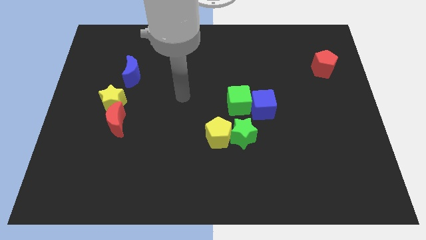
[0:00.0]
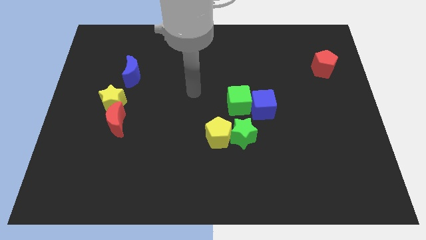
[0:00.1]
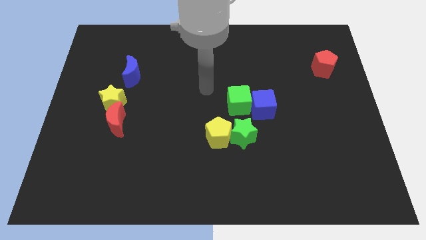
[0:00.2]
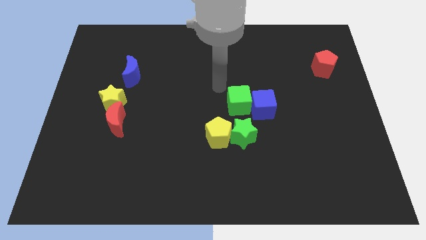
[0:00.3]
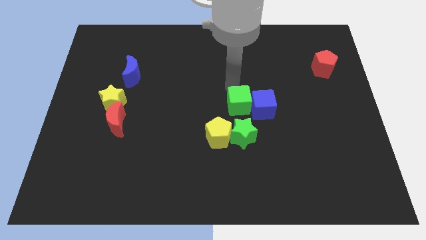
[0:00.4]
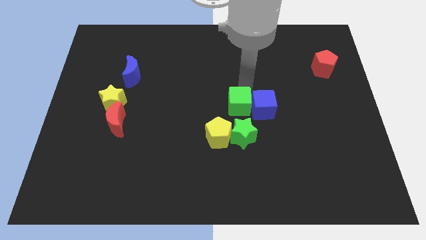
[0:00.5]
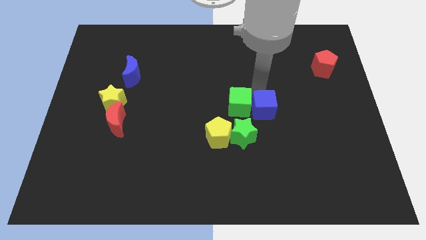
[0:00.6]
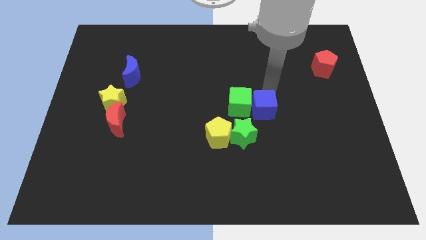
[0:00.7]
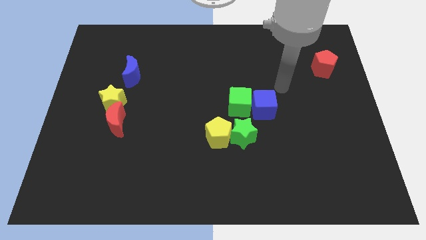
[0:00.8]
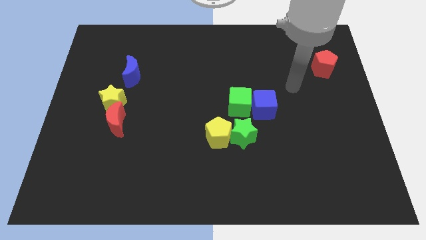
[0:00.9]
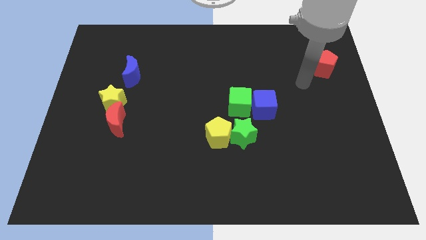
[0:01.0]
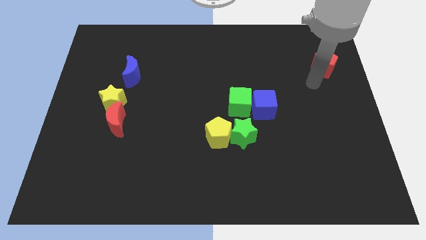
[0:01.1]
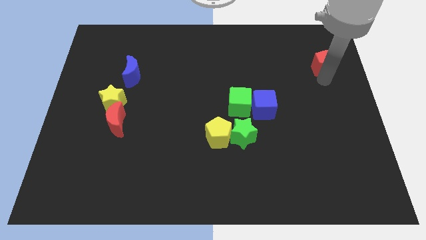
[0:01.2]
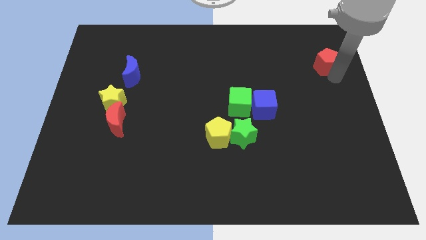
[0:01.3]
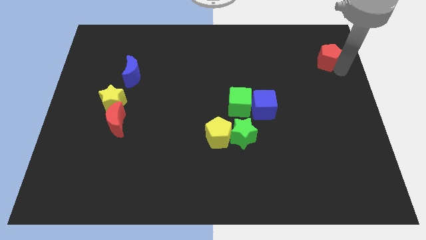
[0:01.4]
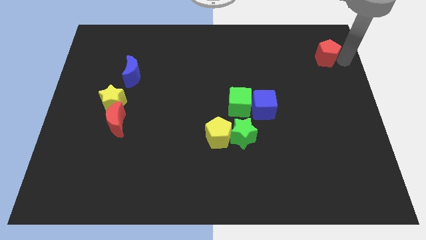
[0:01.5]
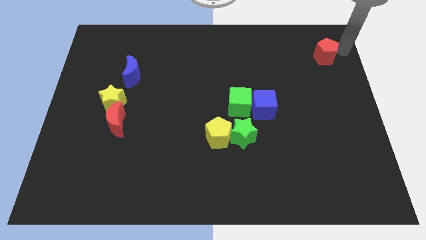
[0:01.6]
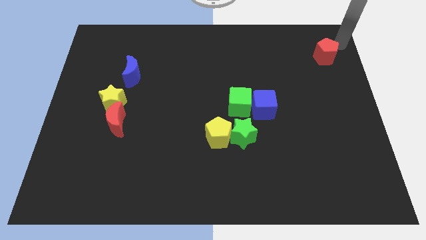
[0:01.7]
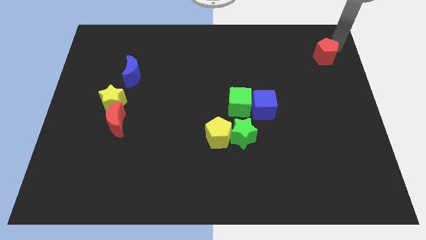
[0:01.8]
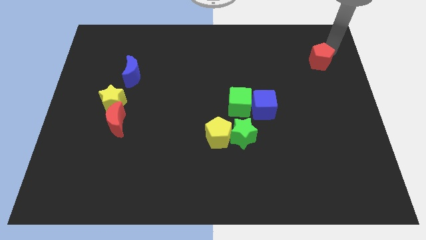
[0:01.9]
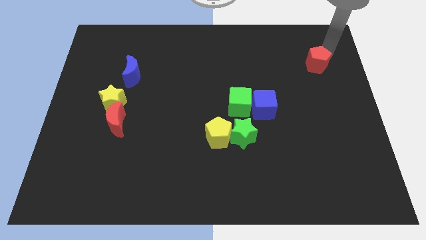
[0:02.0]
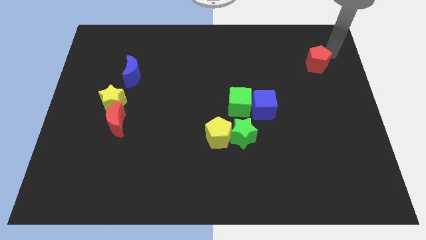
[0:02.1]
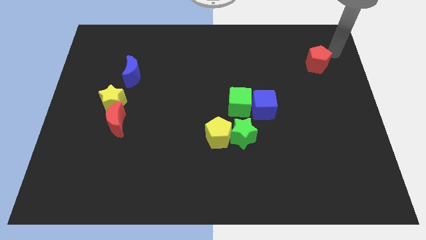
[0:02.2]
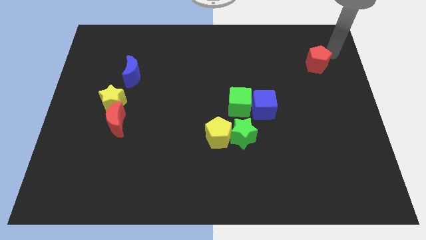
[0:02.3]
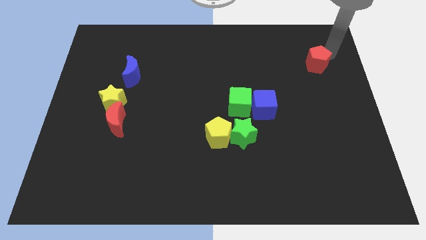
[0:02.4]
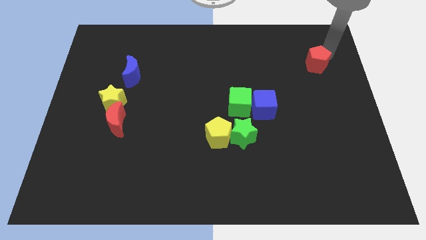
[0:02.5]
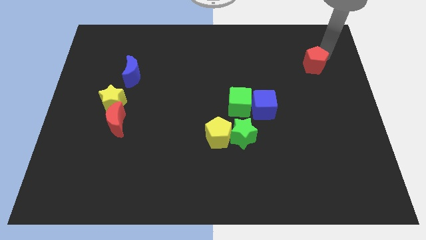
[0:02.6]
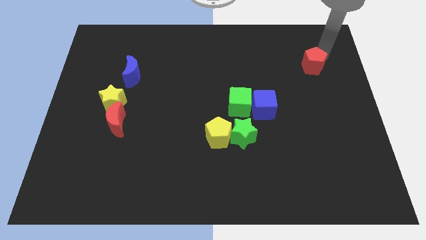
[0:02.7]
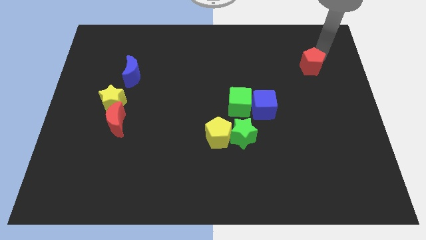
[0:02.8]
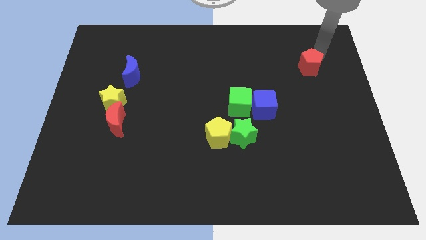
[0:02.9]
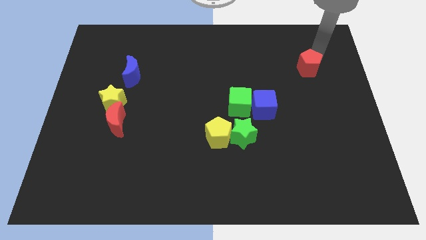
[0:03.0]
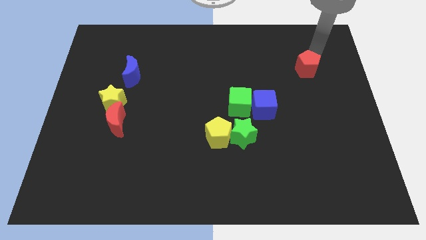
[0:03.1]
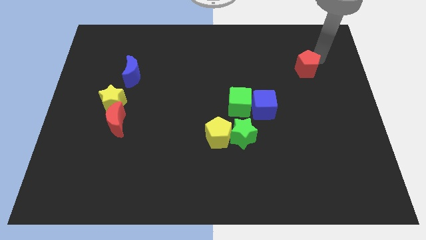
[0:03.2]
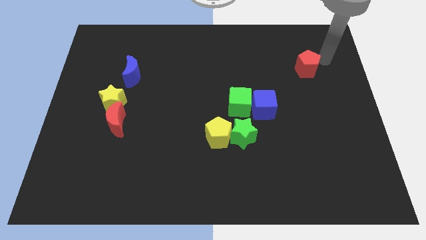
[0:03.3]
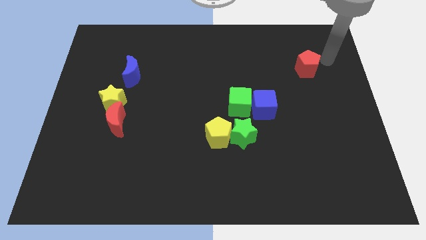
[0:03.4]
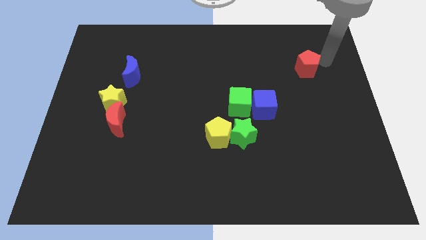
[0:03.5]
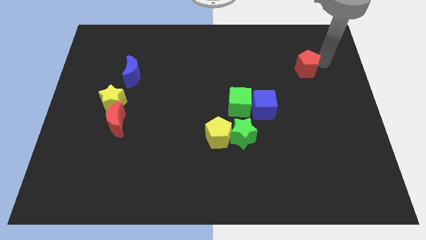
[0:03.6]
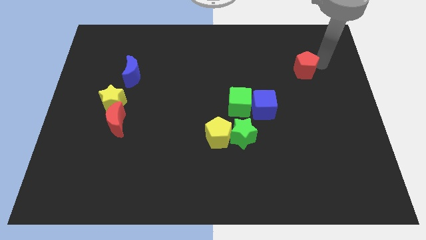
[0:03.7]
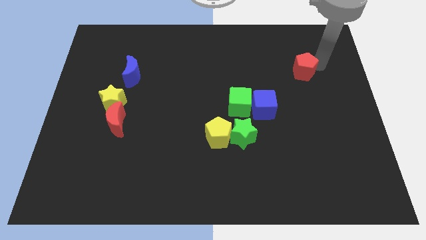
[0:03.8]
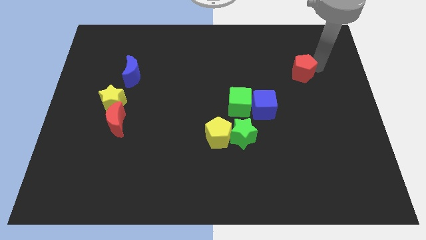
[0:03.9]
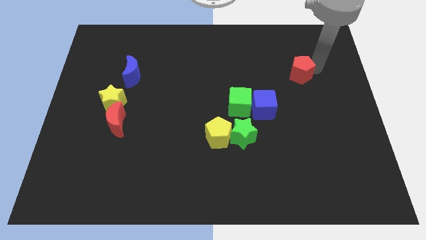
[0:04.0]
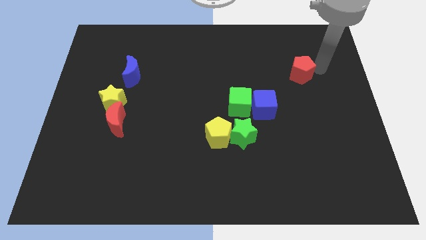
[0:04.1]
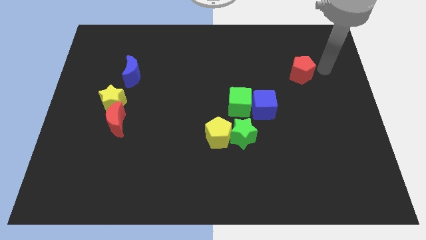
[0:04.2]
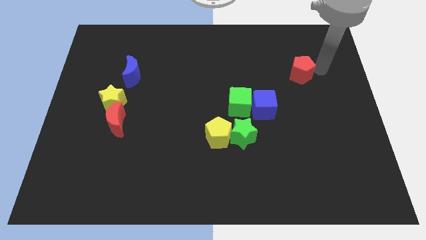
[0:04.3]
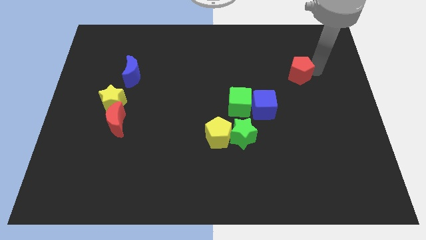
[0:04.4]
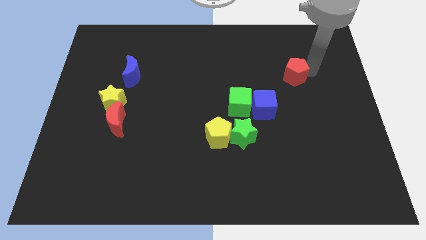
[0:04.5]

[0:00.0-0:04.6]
push the red pentagon a bit to the left

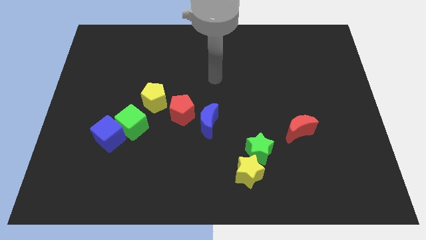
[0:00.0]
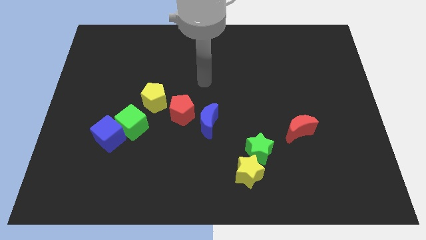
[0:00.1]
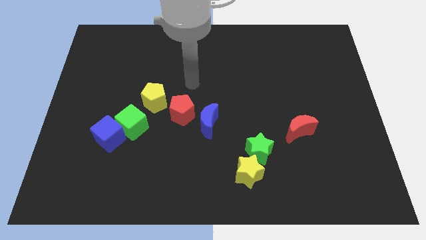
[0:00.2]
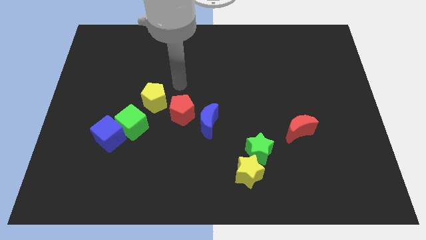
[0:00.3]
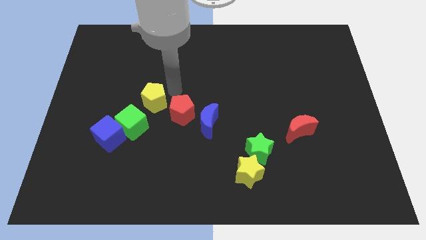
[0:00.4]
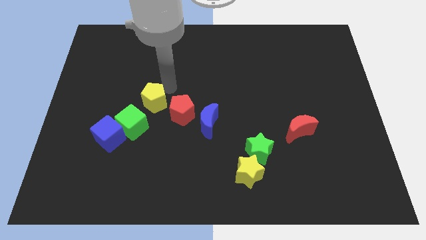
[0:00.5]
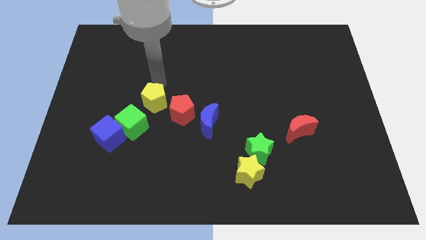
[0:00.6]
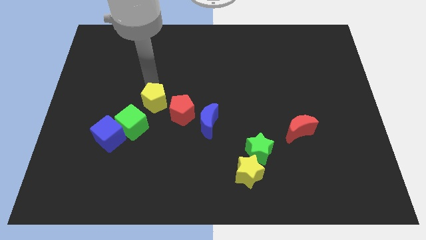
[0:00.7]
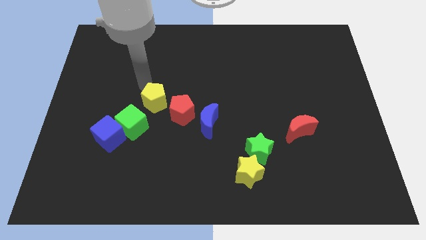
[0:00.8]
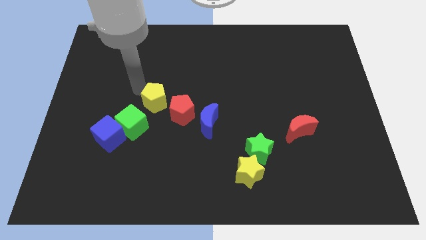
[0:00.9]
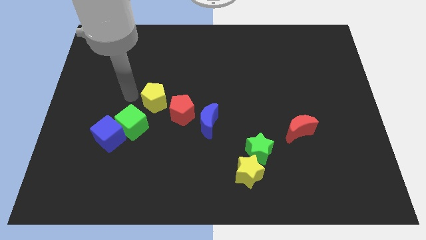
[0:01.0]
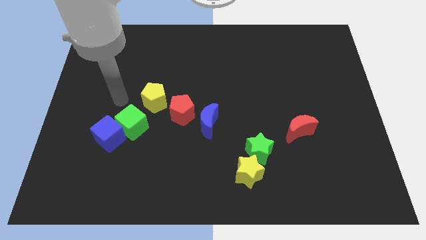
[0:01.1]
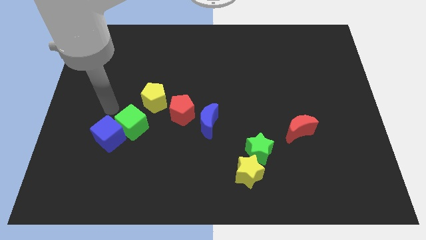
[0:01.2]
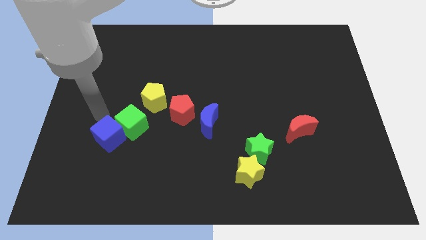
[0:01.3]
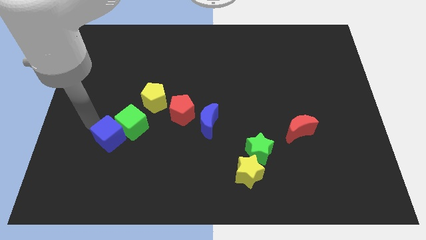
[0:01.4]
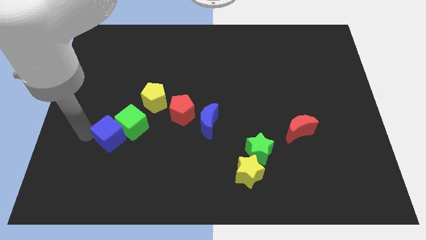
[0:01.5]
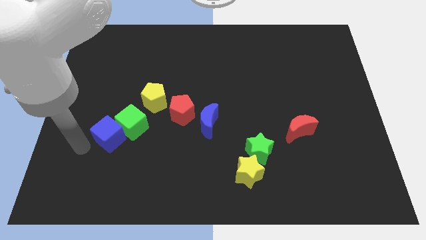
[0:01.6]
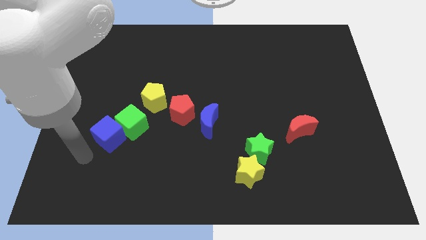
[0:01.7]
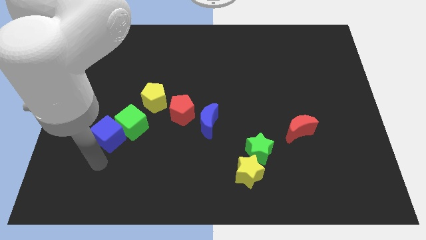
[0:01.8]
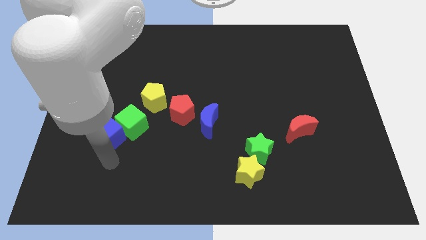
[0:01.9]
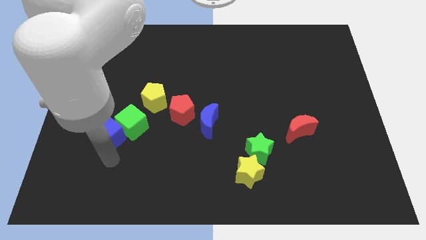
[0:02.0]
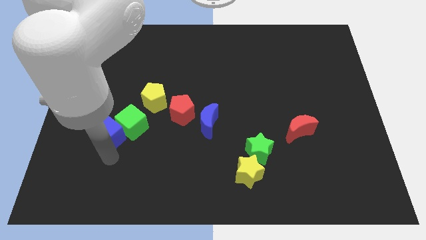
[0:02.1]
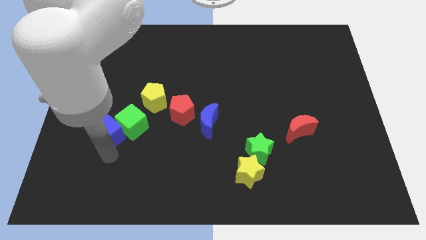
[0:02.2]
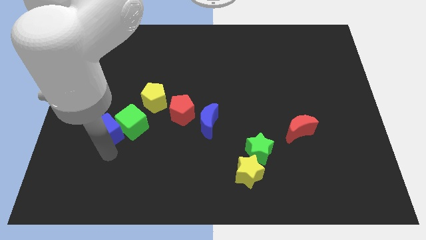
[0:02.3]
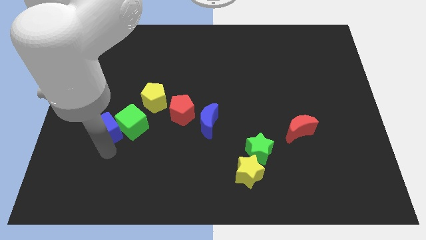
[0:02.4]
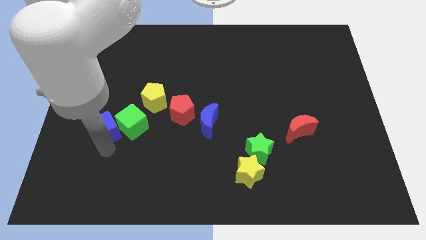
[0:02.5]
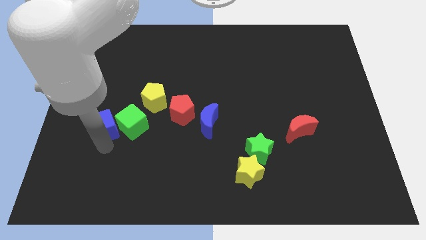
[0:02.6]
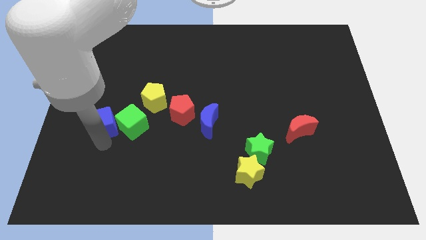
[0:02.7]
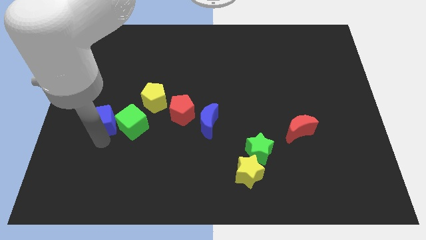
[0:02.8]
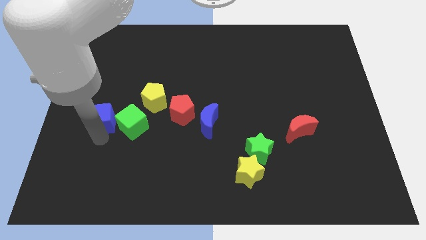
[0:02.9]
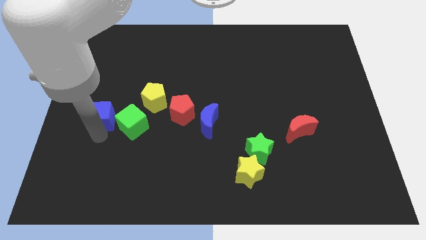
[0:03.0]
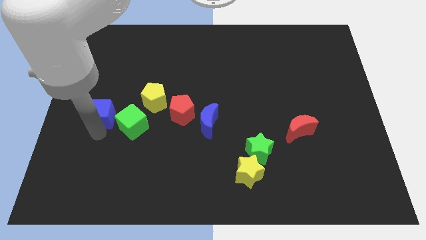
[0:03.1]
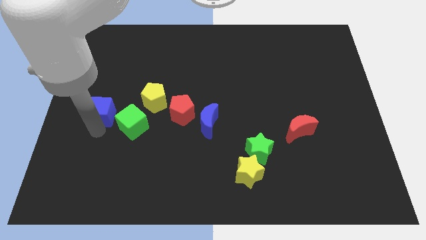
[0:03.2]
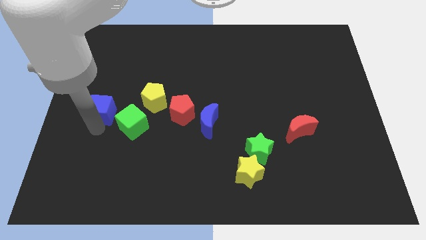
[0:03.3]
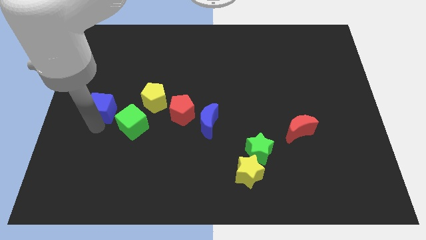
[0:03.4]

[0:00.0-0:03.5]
push the blue cube up a little bit
